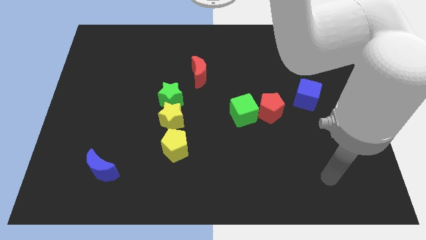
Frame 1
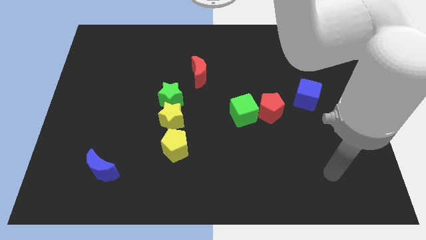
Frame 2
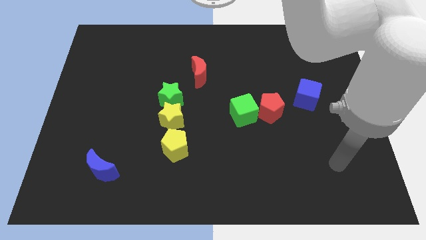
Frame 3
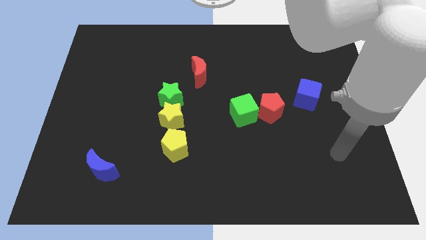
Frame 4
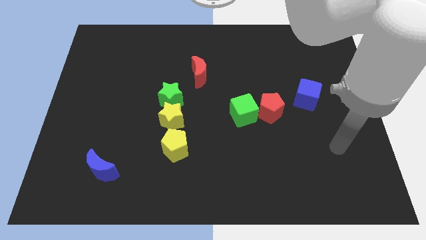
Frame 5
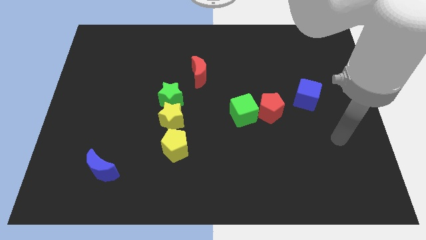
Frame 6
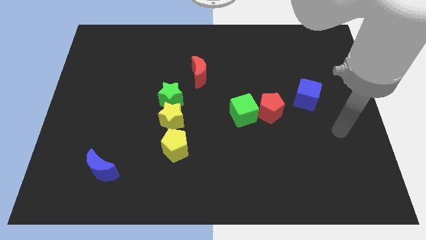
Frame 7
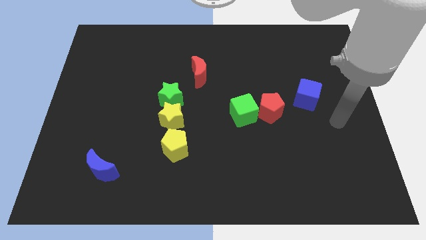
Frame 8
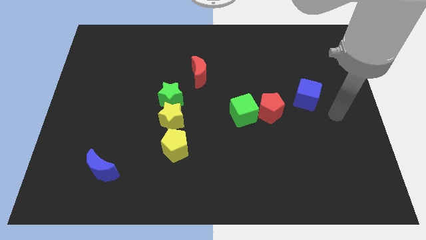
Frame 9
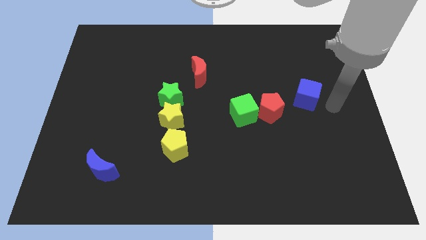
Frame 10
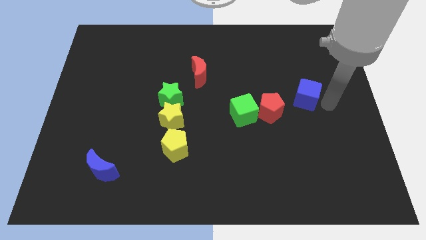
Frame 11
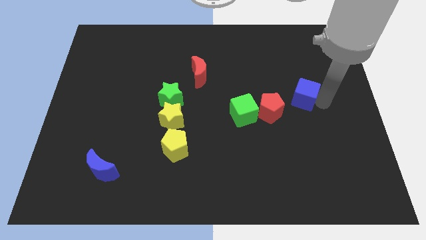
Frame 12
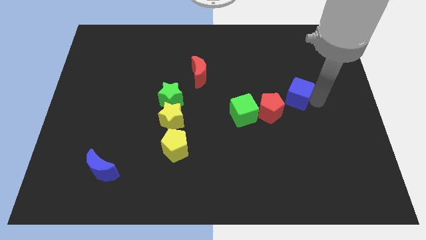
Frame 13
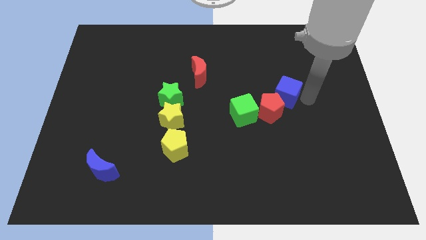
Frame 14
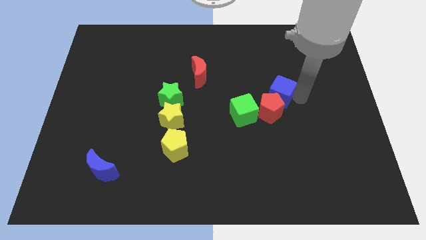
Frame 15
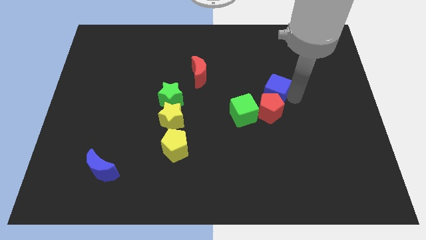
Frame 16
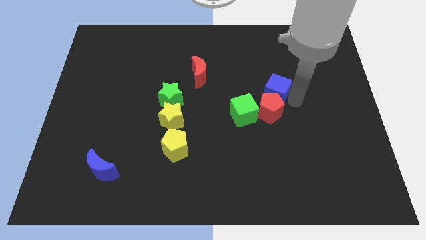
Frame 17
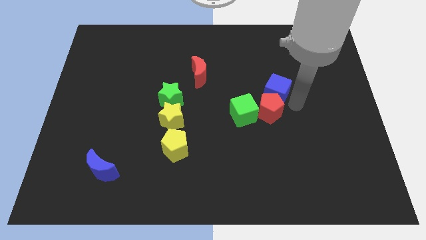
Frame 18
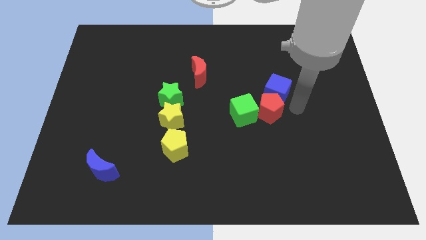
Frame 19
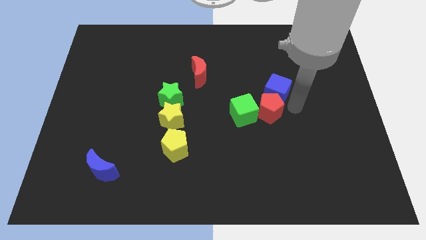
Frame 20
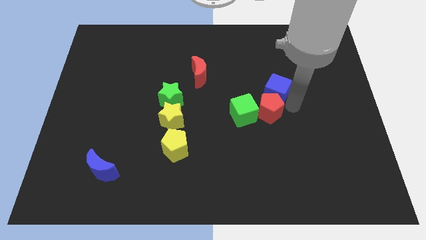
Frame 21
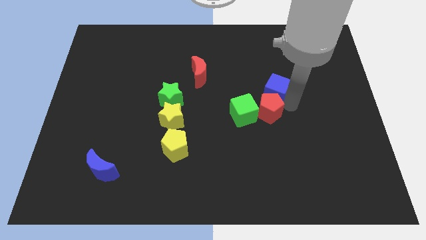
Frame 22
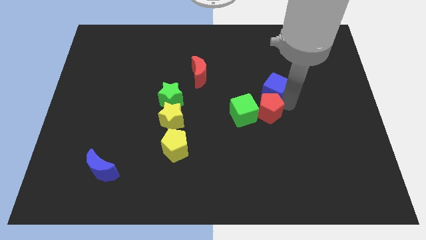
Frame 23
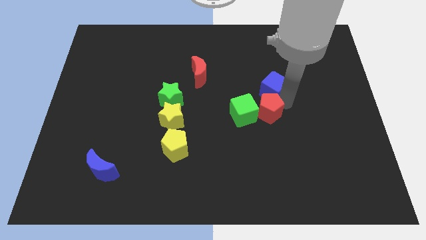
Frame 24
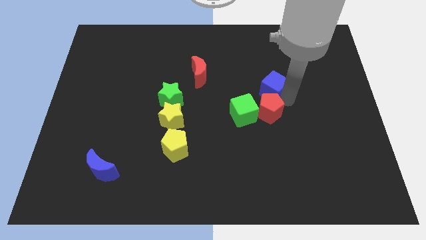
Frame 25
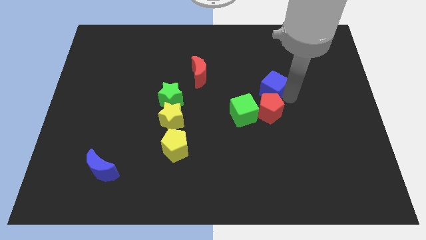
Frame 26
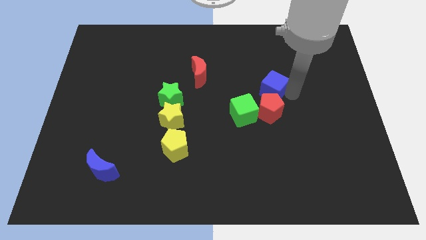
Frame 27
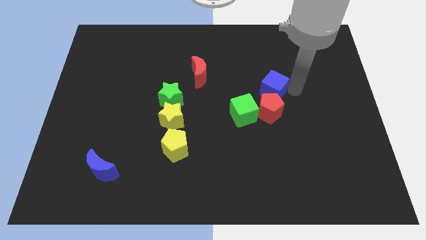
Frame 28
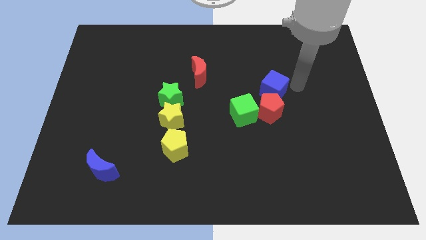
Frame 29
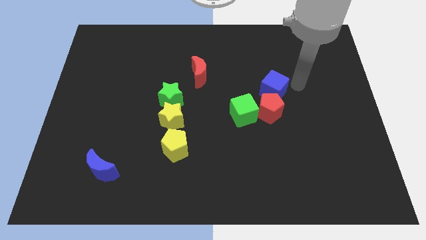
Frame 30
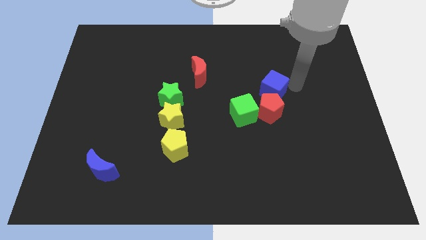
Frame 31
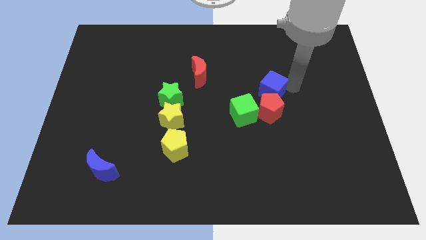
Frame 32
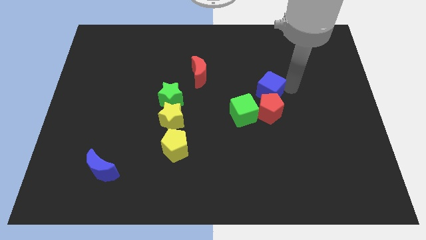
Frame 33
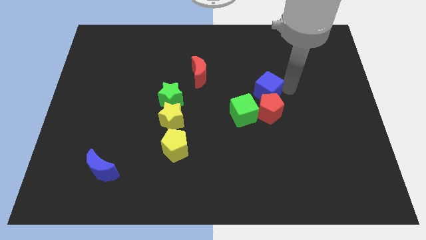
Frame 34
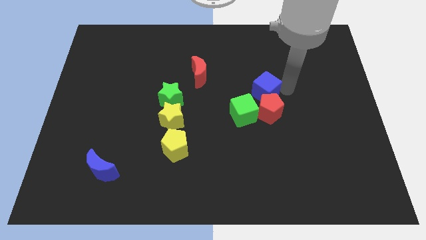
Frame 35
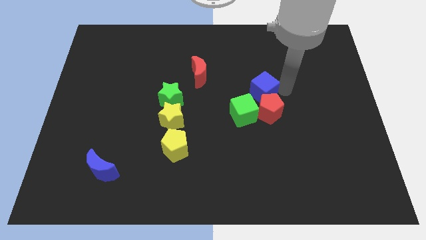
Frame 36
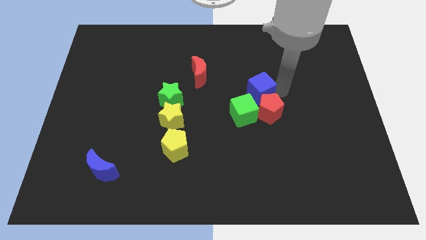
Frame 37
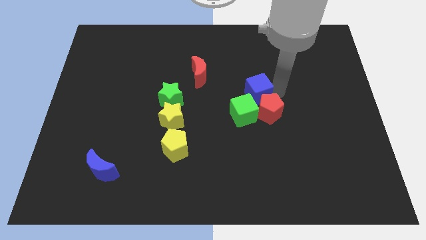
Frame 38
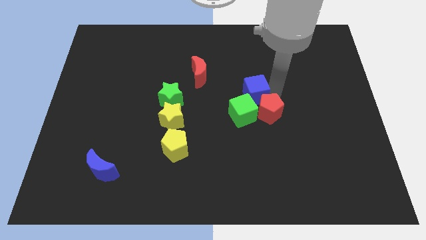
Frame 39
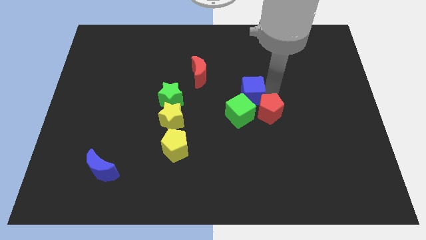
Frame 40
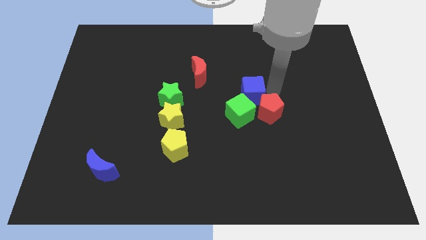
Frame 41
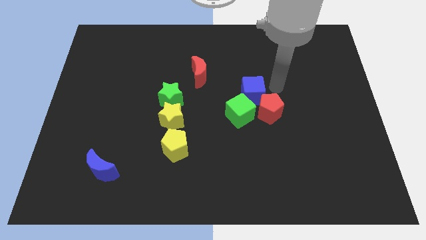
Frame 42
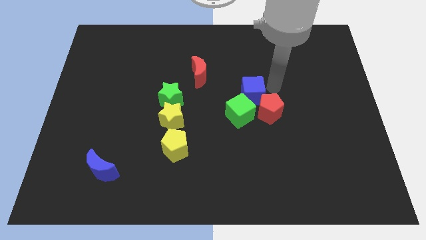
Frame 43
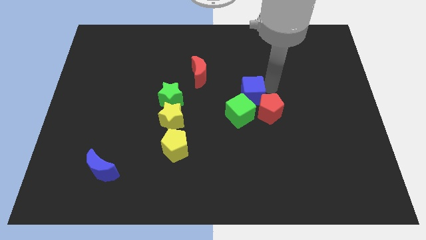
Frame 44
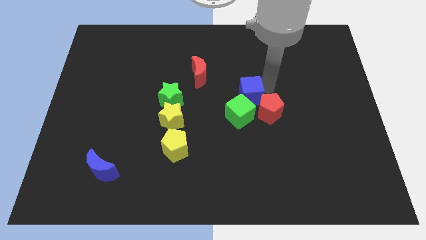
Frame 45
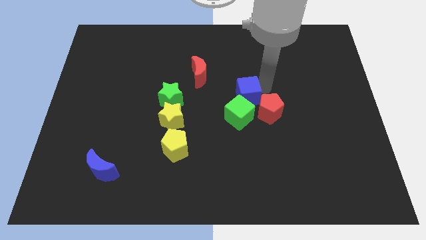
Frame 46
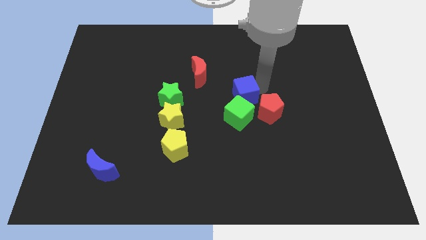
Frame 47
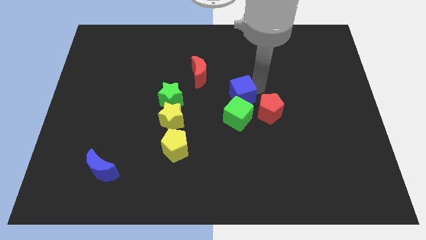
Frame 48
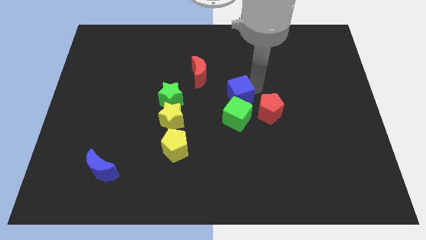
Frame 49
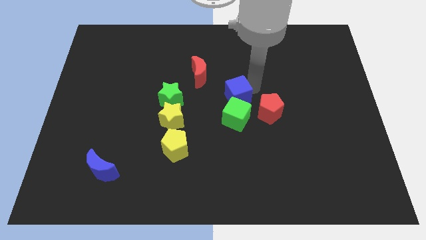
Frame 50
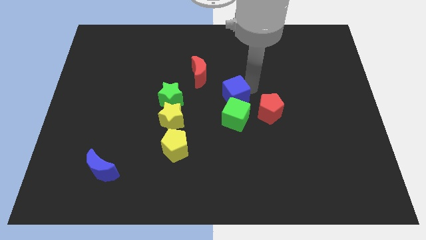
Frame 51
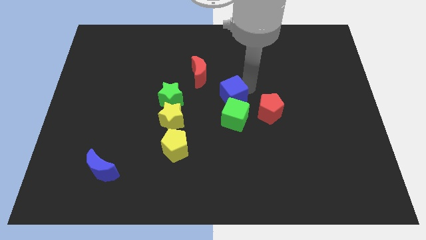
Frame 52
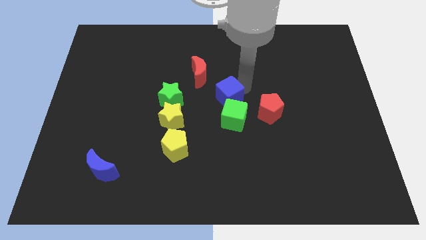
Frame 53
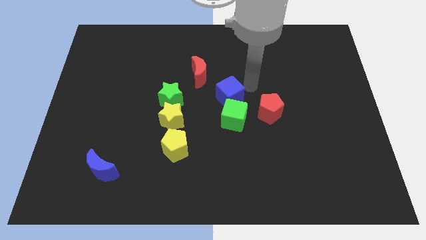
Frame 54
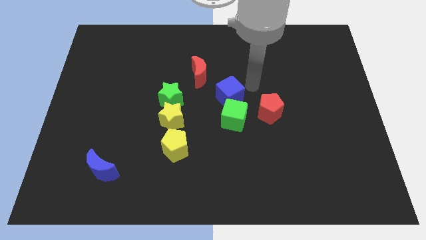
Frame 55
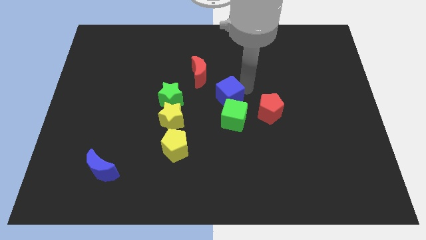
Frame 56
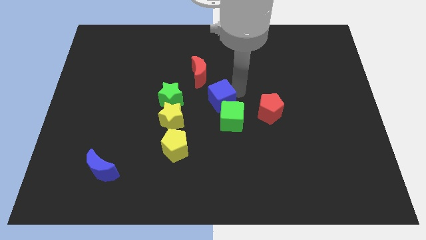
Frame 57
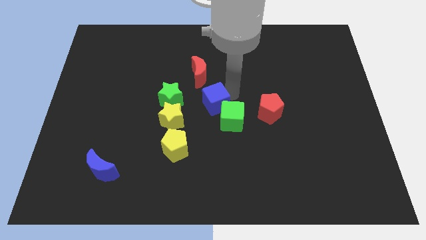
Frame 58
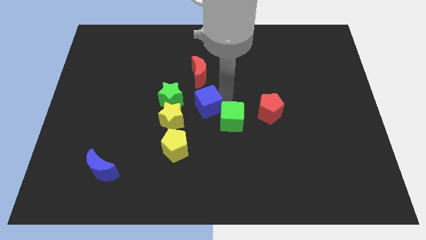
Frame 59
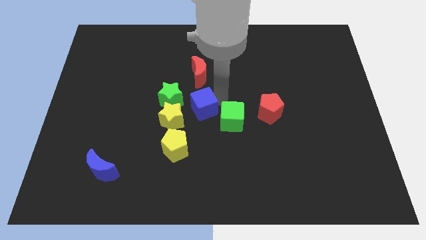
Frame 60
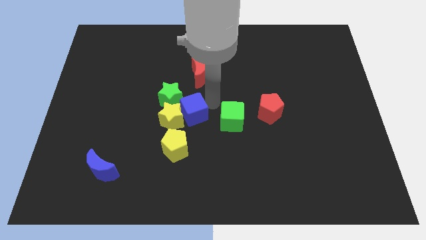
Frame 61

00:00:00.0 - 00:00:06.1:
move the blue cube to the yellow star

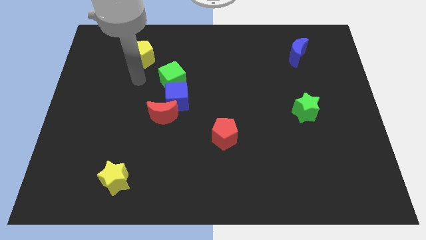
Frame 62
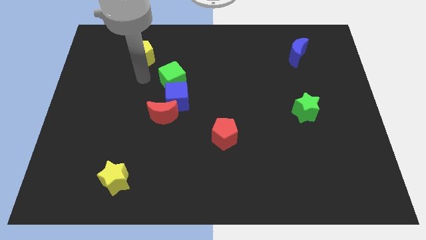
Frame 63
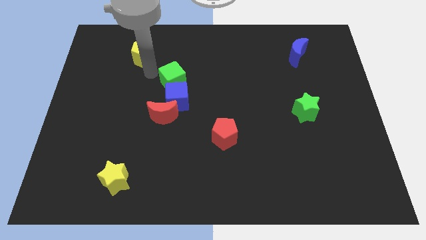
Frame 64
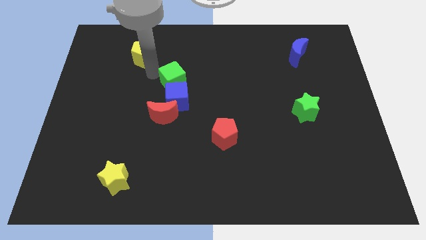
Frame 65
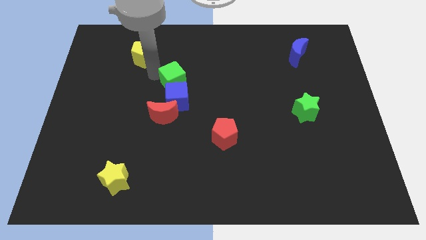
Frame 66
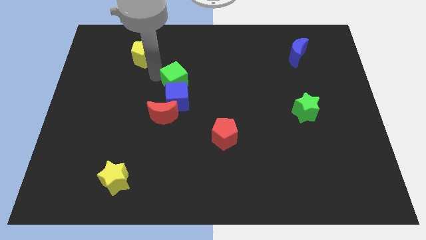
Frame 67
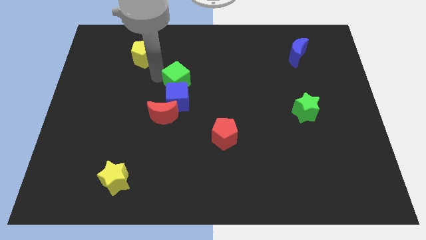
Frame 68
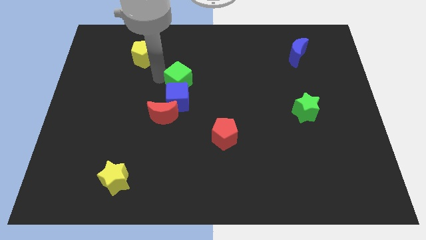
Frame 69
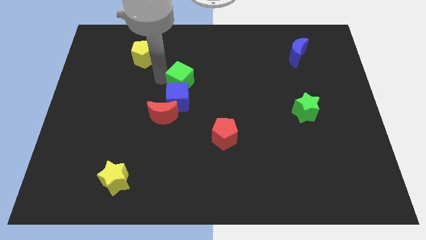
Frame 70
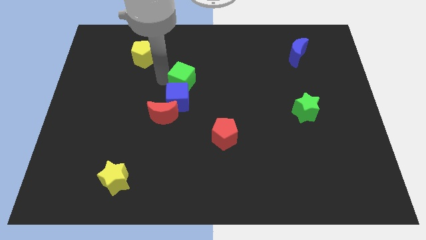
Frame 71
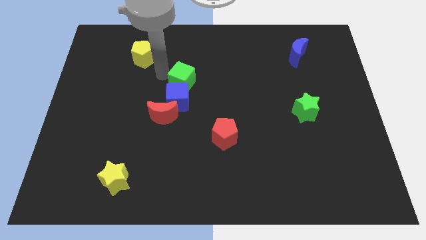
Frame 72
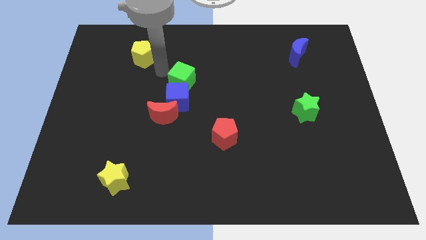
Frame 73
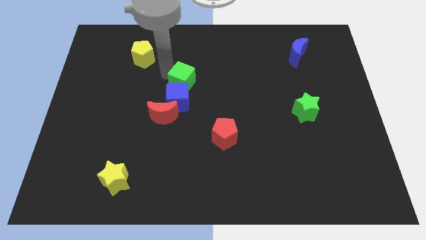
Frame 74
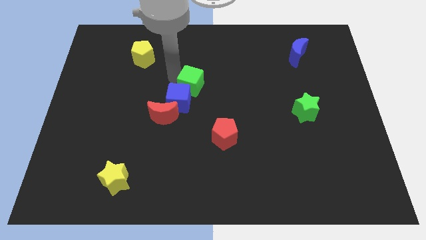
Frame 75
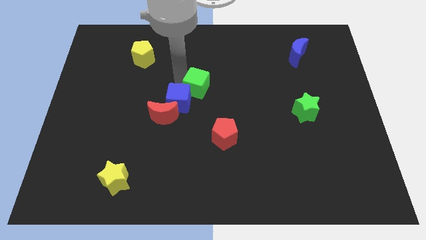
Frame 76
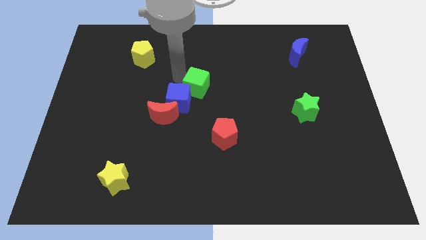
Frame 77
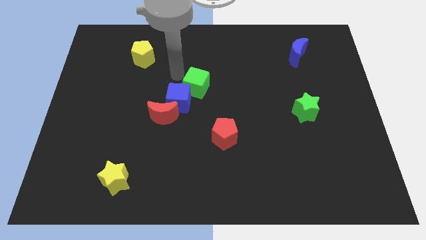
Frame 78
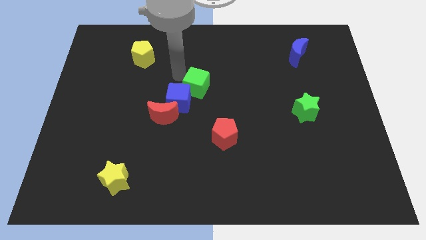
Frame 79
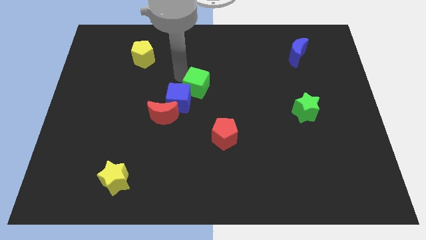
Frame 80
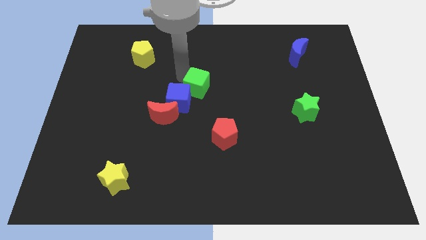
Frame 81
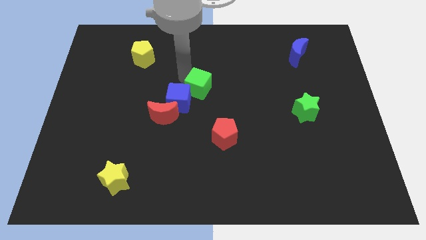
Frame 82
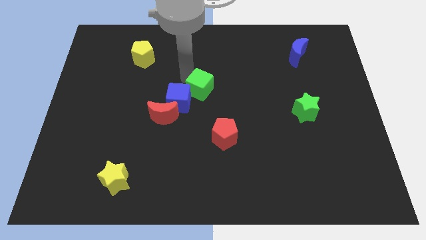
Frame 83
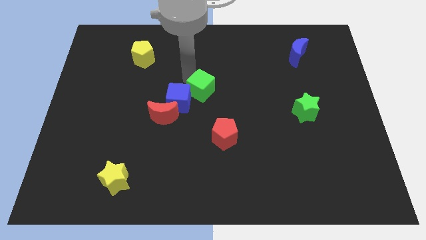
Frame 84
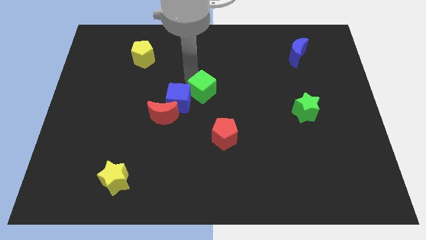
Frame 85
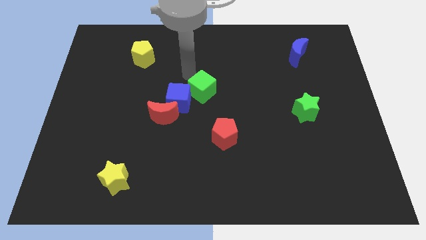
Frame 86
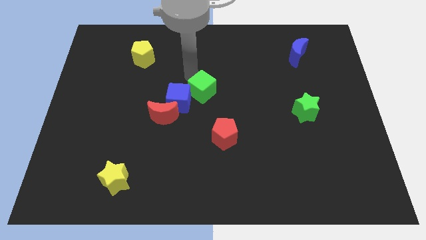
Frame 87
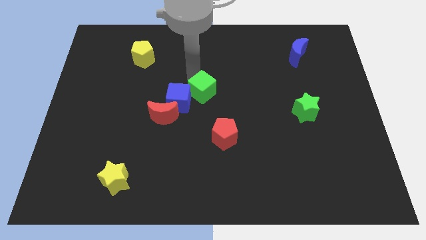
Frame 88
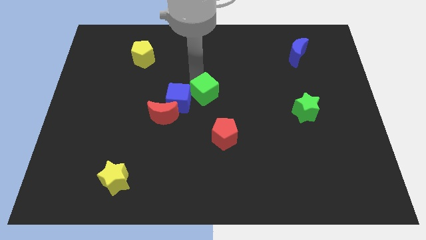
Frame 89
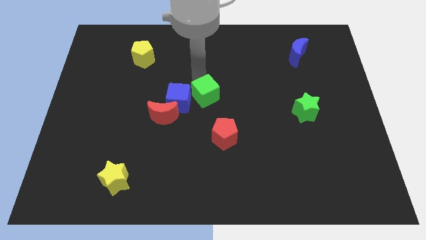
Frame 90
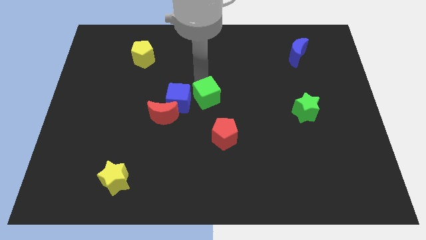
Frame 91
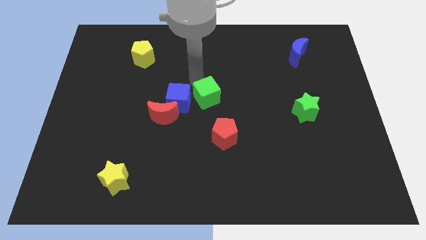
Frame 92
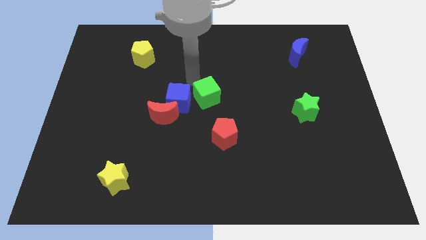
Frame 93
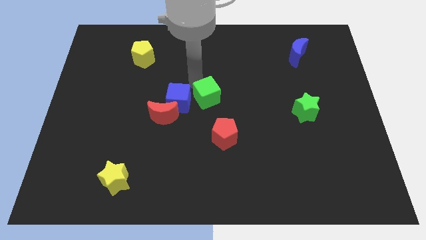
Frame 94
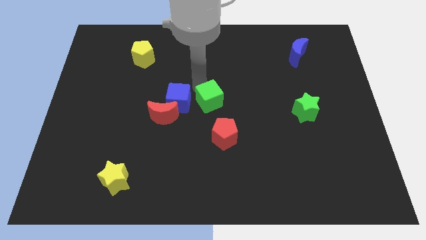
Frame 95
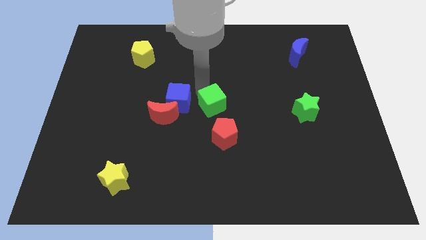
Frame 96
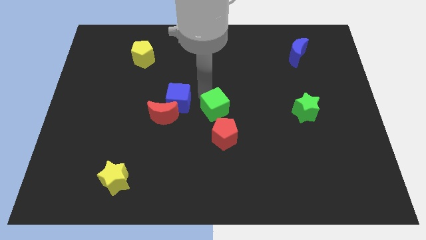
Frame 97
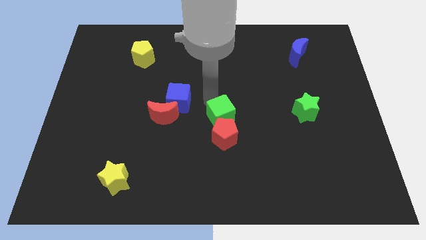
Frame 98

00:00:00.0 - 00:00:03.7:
push the green cube close to the red pentagon
